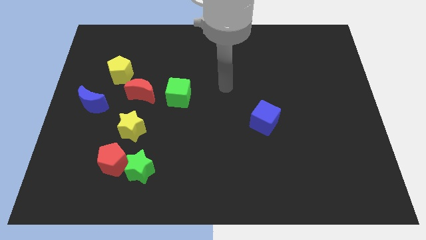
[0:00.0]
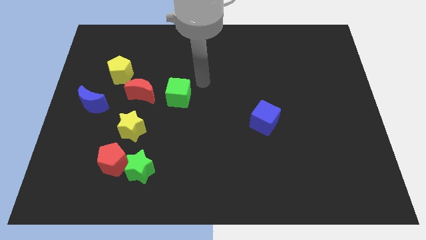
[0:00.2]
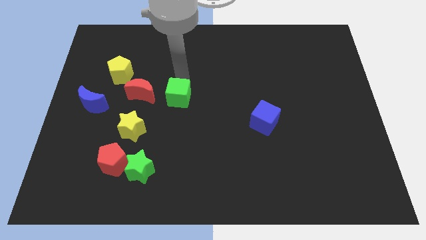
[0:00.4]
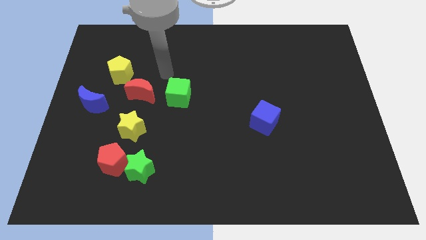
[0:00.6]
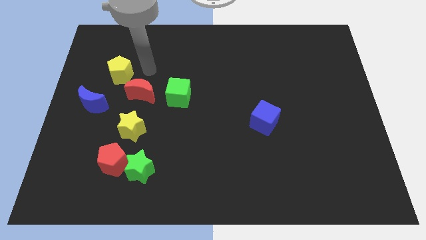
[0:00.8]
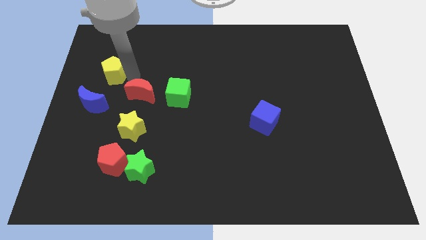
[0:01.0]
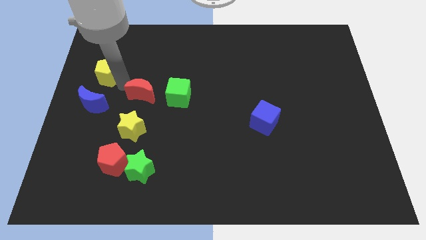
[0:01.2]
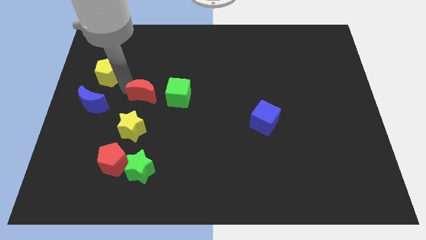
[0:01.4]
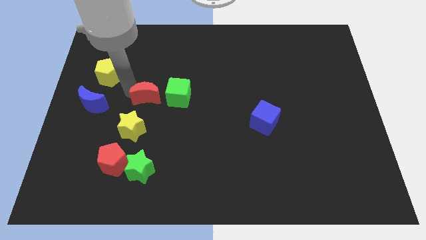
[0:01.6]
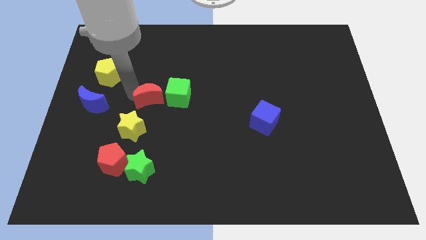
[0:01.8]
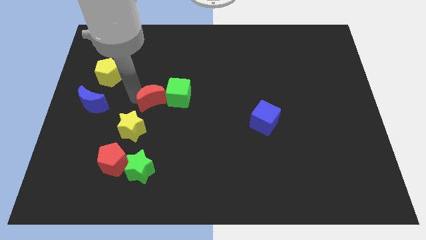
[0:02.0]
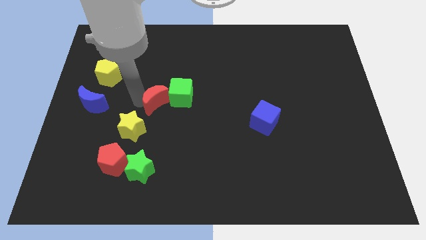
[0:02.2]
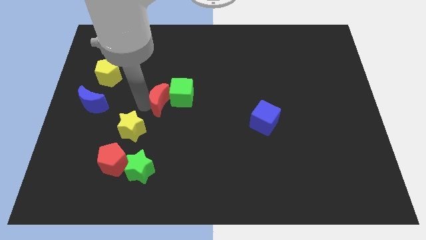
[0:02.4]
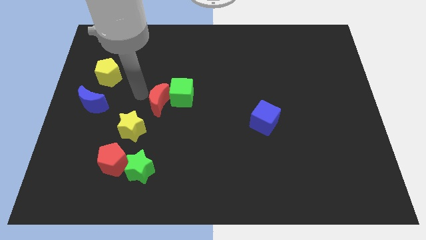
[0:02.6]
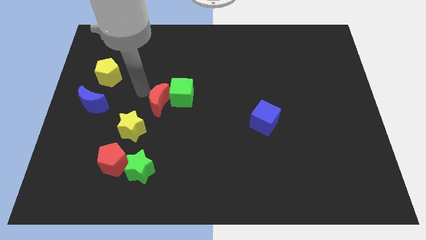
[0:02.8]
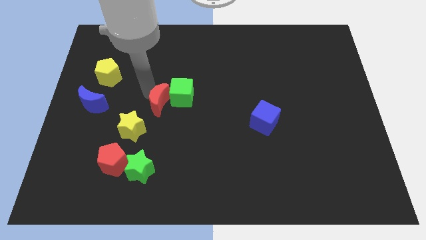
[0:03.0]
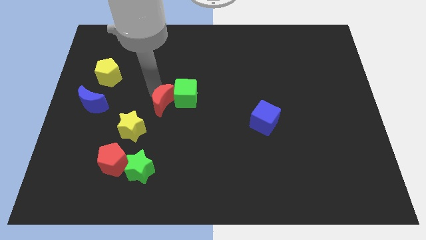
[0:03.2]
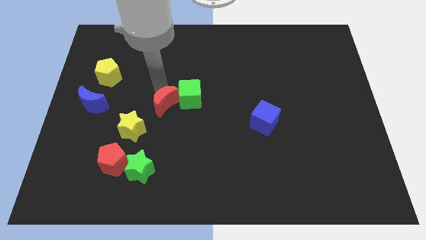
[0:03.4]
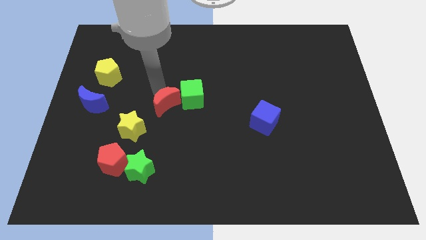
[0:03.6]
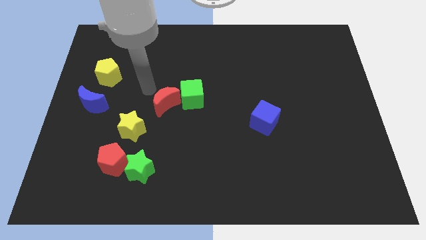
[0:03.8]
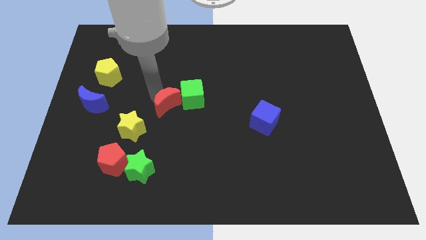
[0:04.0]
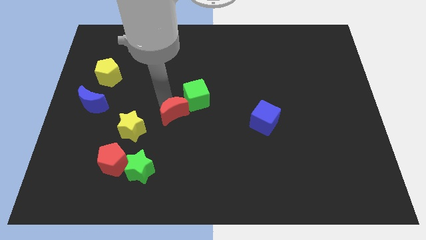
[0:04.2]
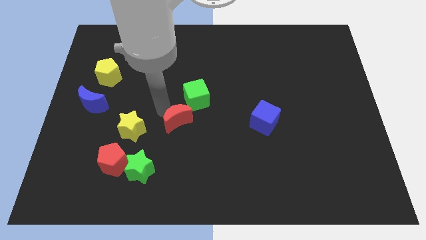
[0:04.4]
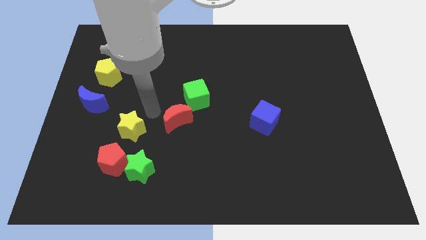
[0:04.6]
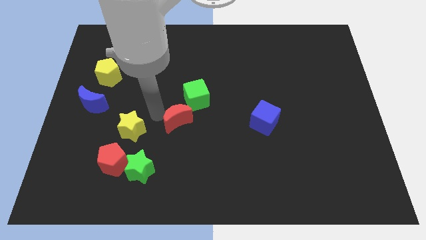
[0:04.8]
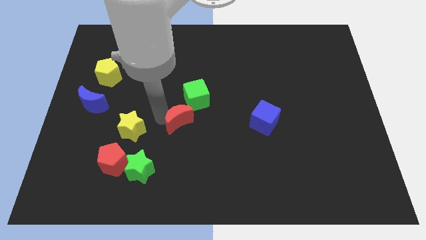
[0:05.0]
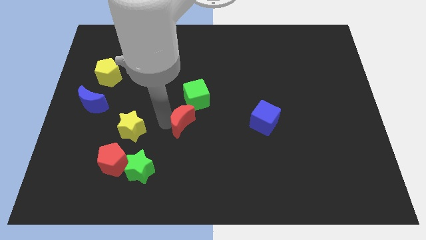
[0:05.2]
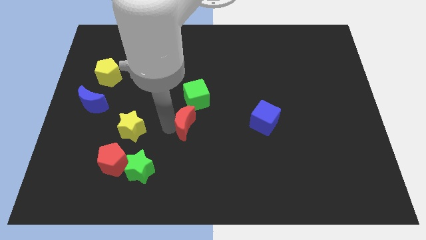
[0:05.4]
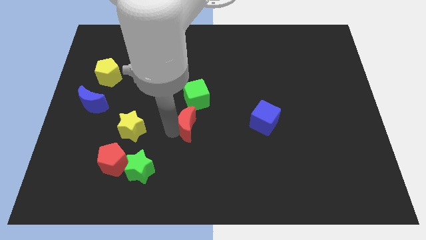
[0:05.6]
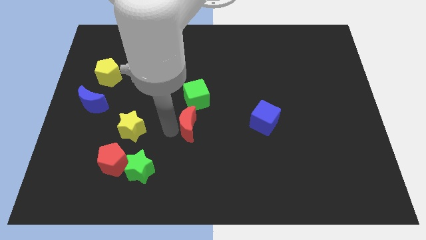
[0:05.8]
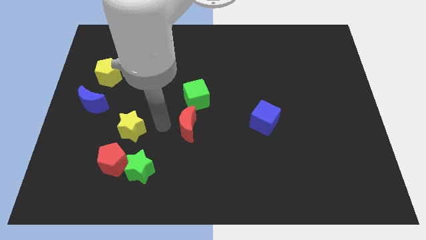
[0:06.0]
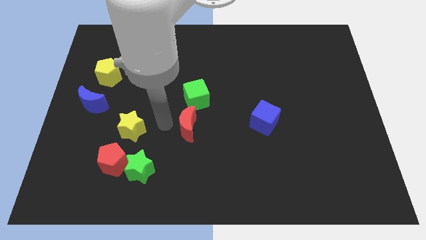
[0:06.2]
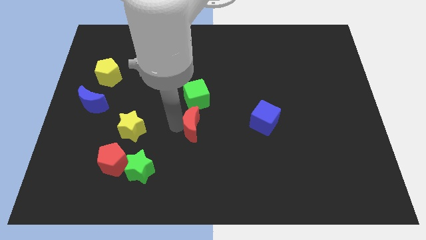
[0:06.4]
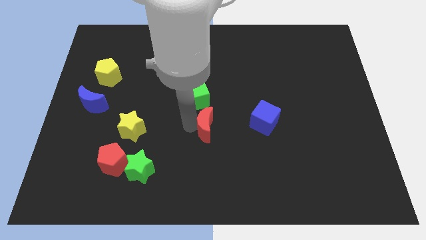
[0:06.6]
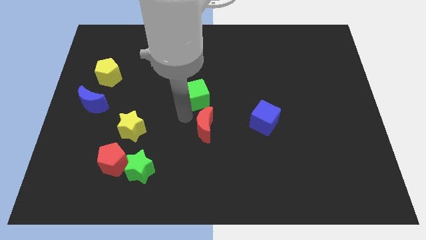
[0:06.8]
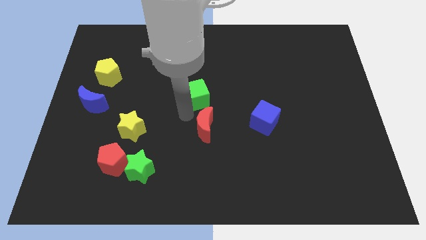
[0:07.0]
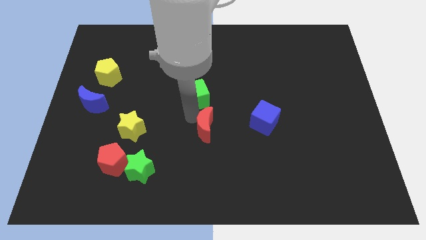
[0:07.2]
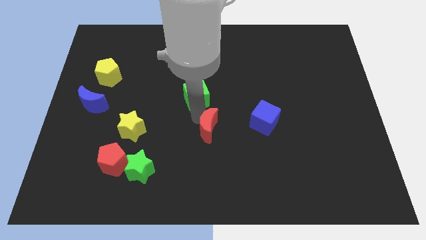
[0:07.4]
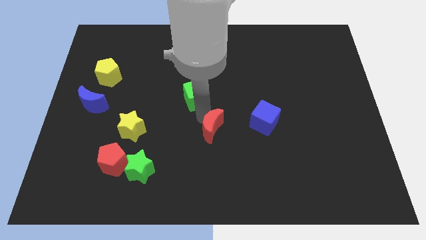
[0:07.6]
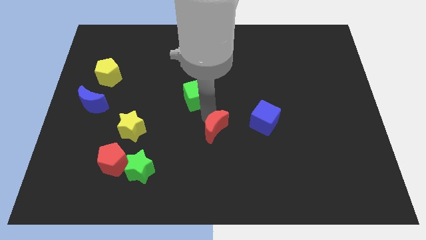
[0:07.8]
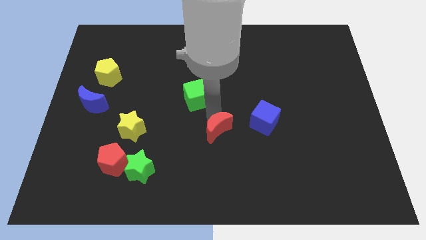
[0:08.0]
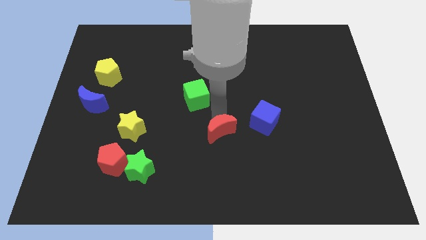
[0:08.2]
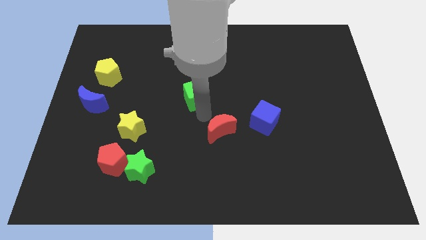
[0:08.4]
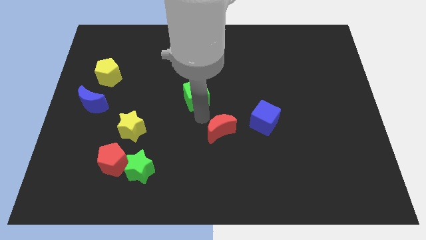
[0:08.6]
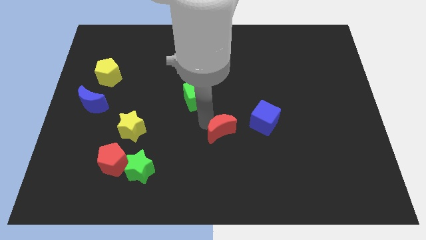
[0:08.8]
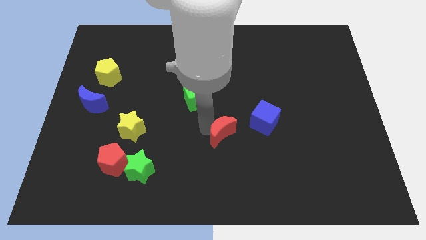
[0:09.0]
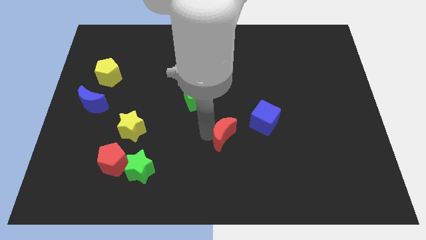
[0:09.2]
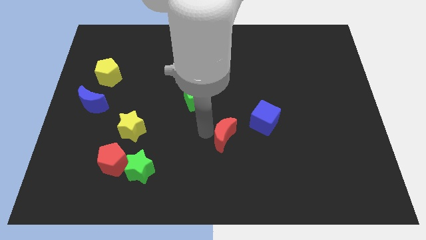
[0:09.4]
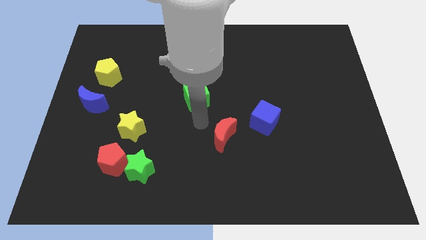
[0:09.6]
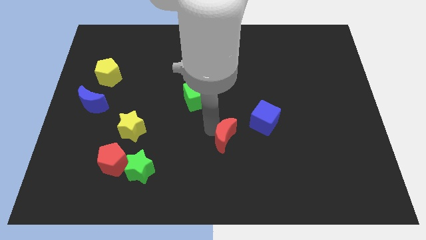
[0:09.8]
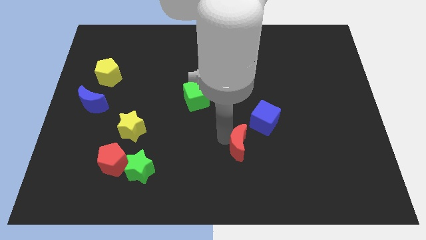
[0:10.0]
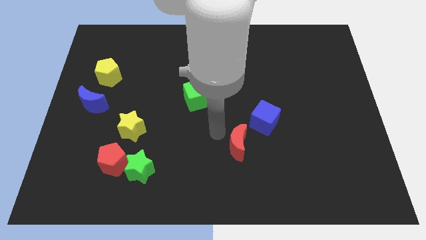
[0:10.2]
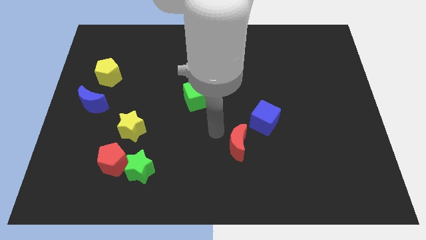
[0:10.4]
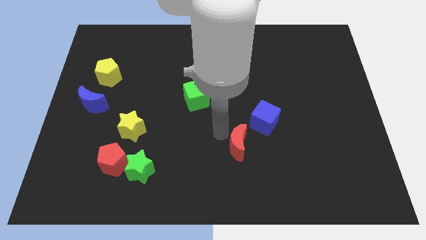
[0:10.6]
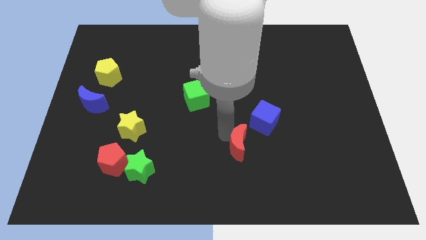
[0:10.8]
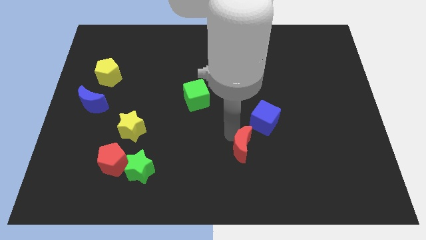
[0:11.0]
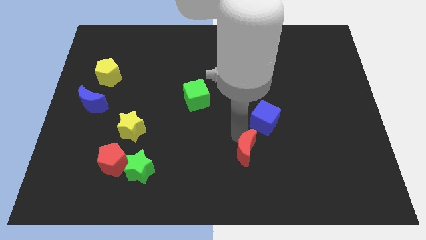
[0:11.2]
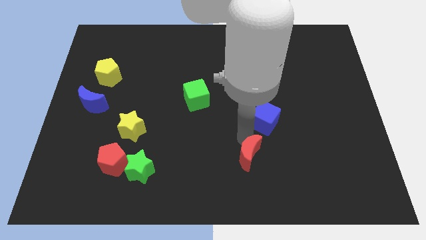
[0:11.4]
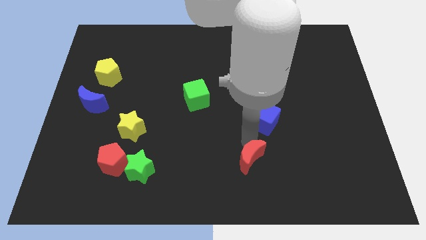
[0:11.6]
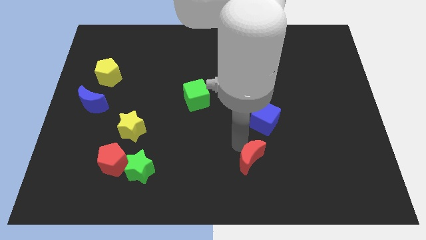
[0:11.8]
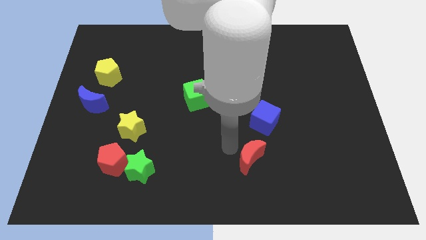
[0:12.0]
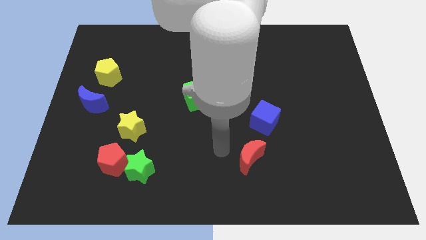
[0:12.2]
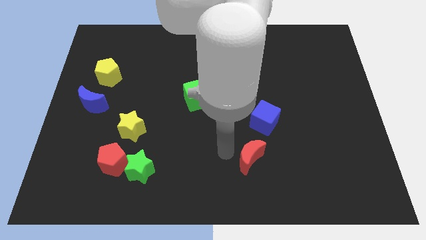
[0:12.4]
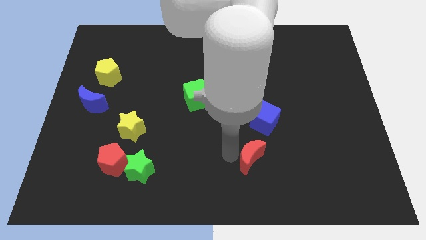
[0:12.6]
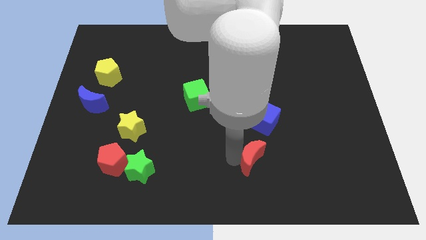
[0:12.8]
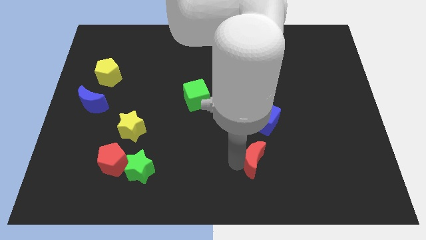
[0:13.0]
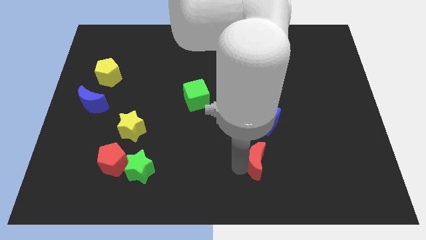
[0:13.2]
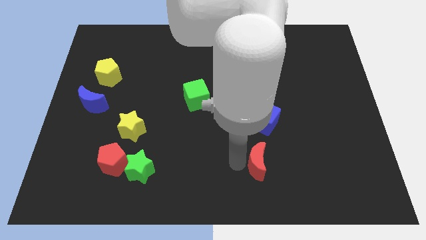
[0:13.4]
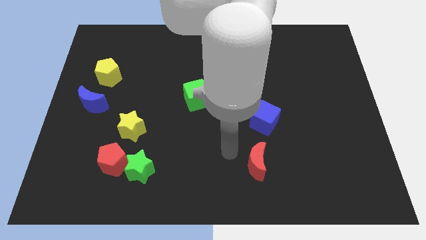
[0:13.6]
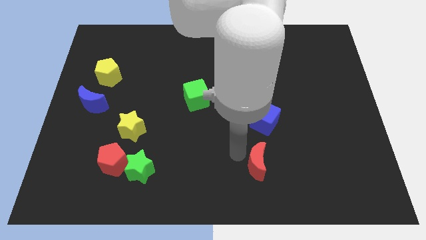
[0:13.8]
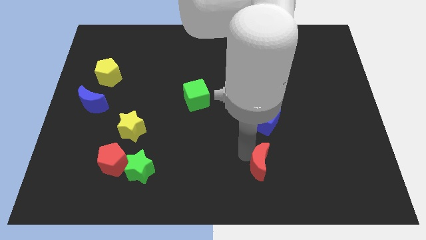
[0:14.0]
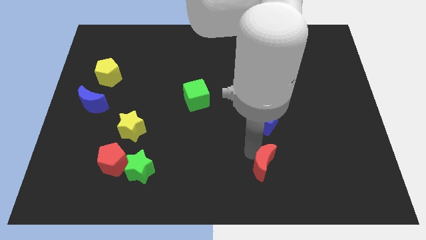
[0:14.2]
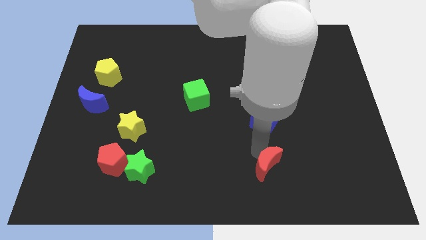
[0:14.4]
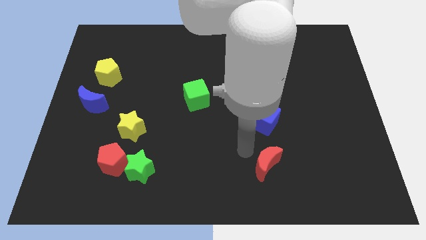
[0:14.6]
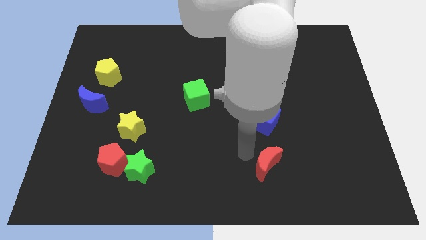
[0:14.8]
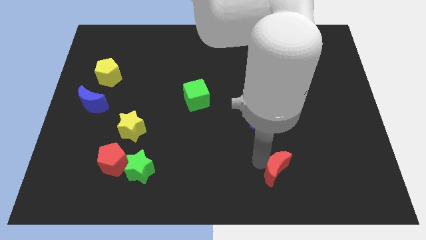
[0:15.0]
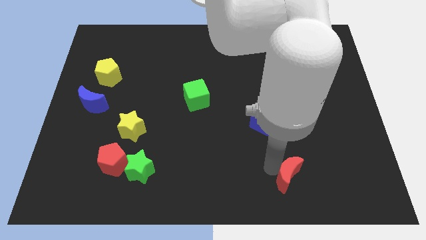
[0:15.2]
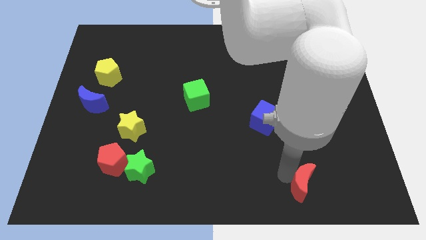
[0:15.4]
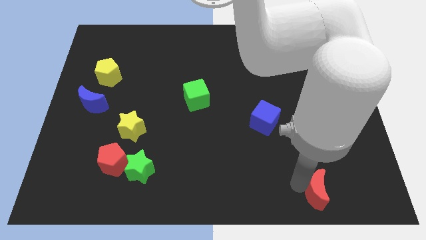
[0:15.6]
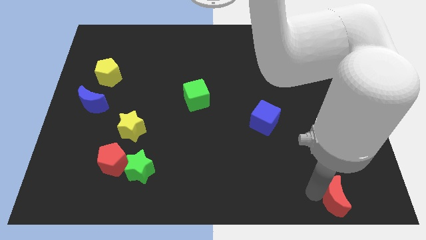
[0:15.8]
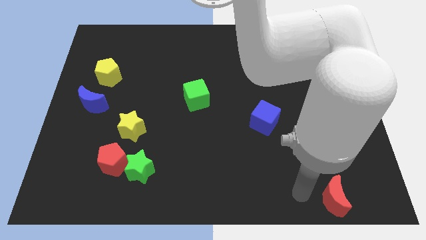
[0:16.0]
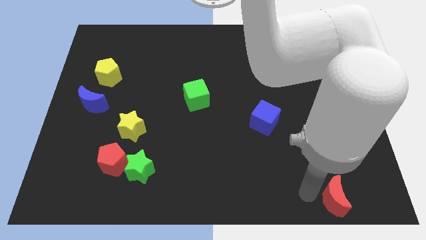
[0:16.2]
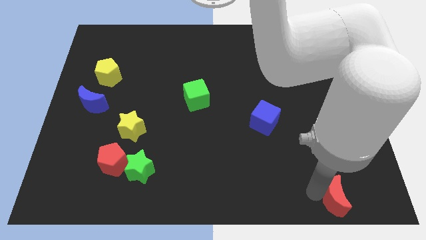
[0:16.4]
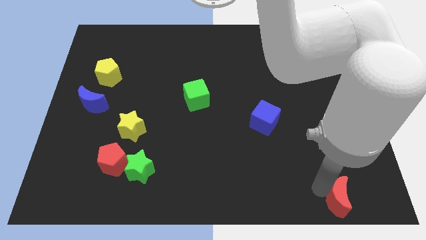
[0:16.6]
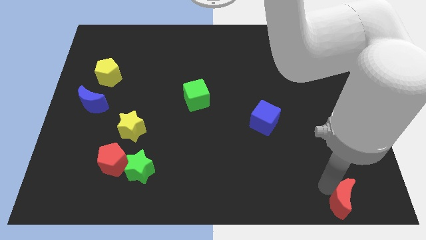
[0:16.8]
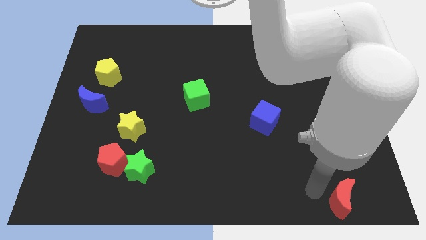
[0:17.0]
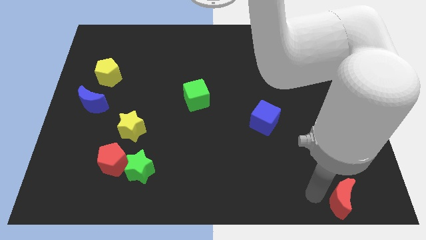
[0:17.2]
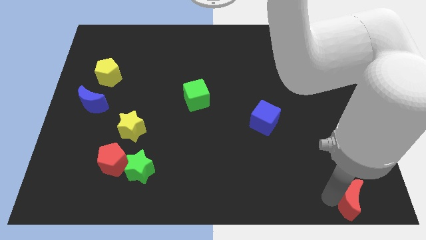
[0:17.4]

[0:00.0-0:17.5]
push the red moon to the bottom right of the board
